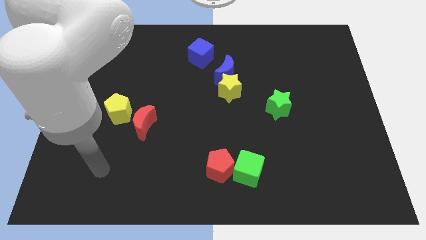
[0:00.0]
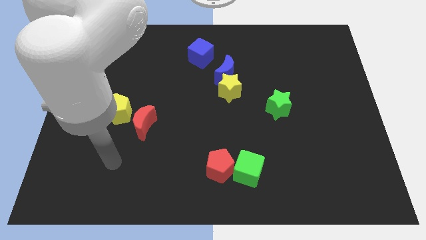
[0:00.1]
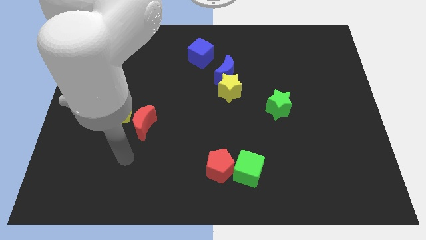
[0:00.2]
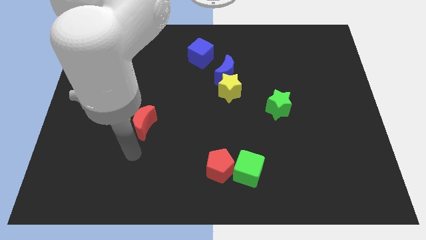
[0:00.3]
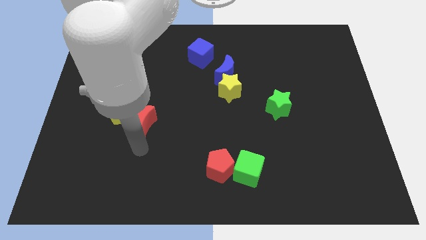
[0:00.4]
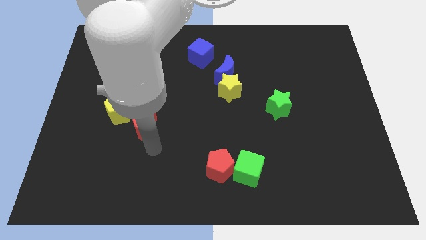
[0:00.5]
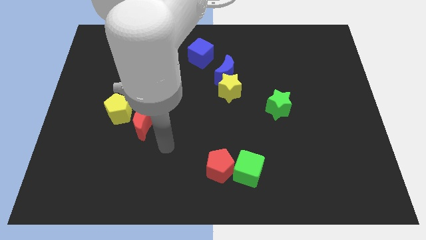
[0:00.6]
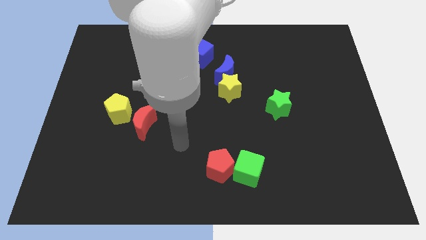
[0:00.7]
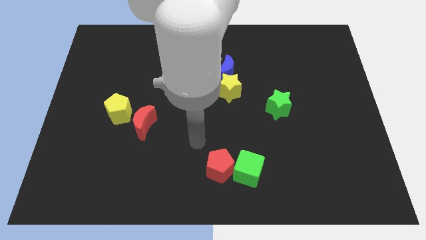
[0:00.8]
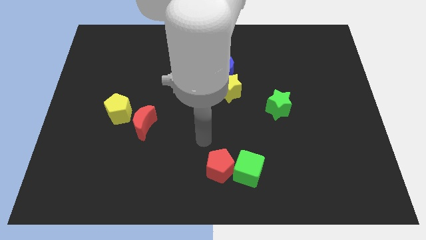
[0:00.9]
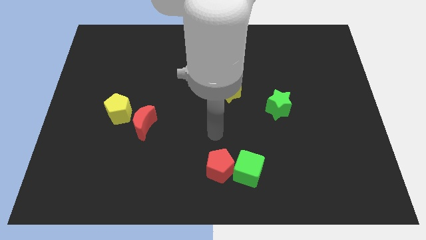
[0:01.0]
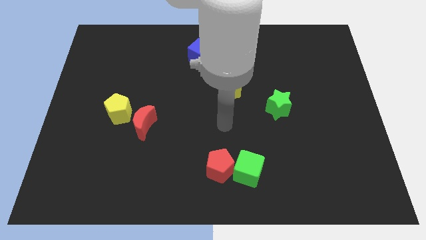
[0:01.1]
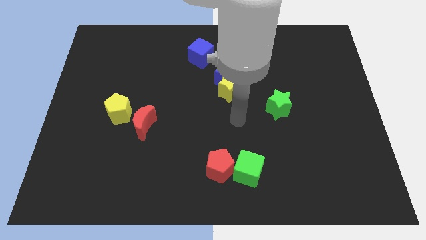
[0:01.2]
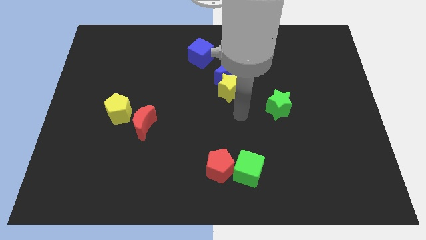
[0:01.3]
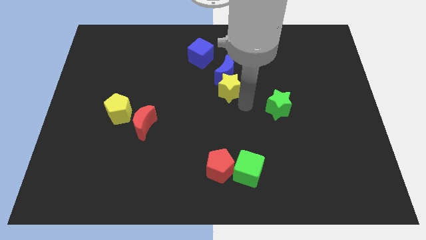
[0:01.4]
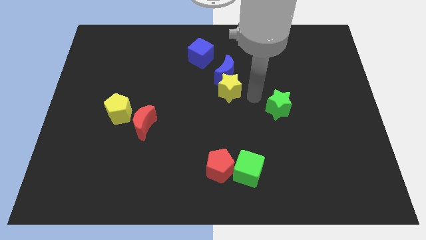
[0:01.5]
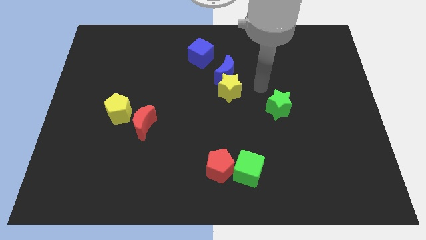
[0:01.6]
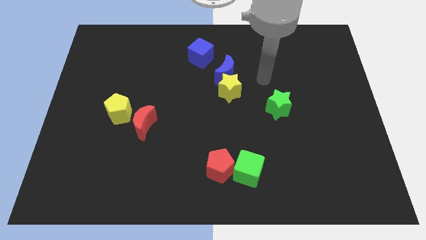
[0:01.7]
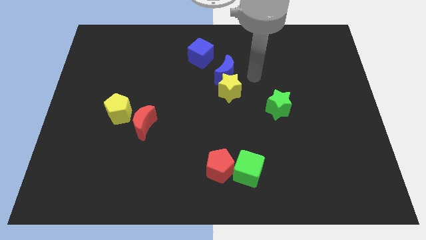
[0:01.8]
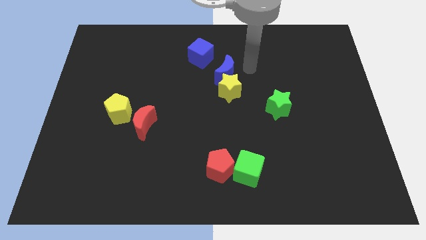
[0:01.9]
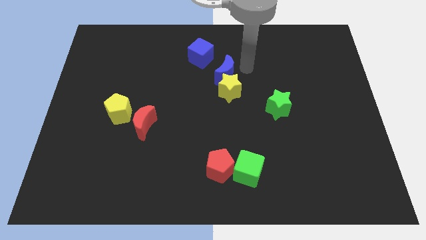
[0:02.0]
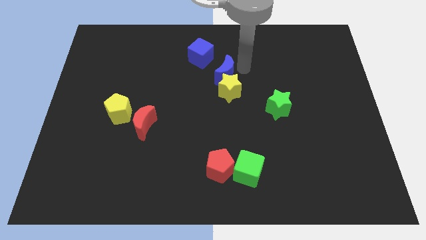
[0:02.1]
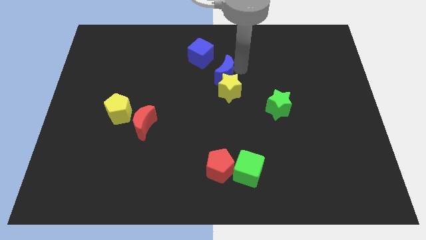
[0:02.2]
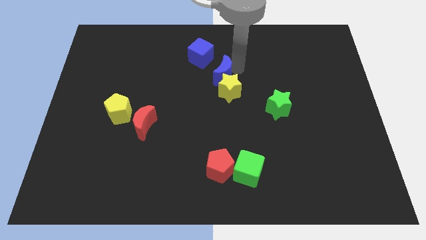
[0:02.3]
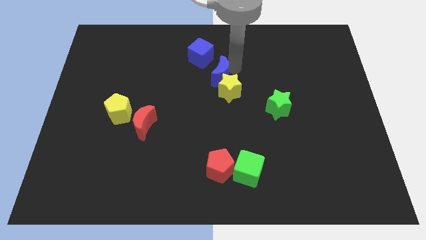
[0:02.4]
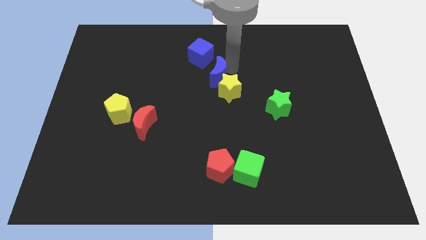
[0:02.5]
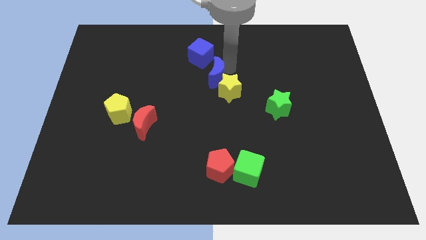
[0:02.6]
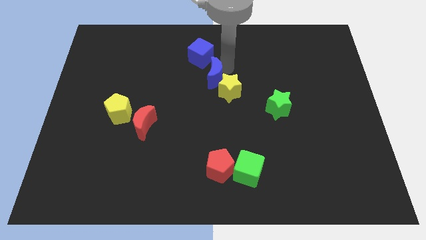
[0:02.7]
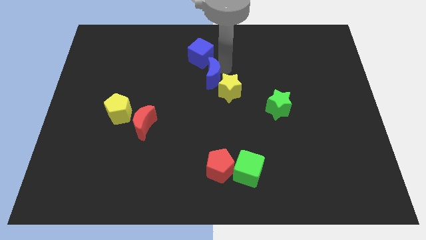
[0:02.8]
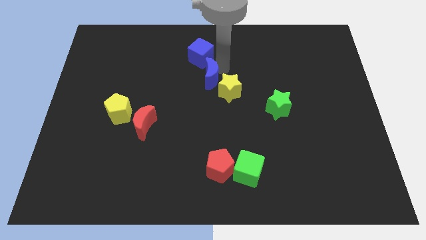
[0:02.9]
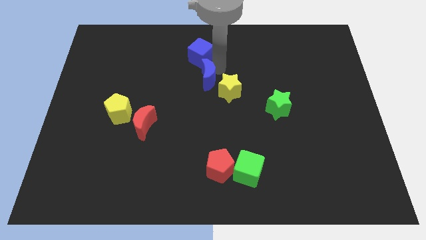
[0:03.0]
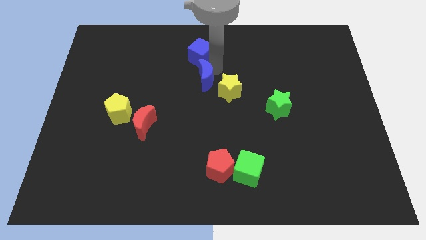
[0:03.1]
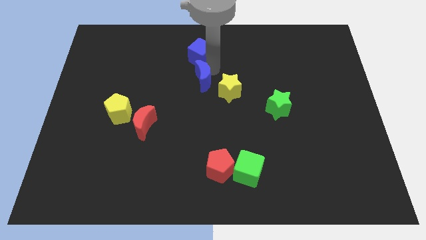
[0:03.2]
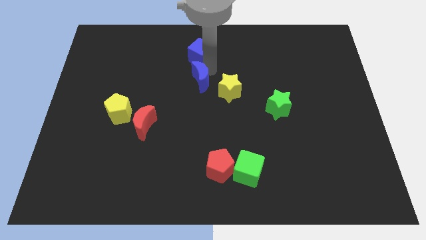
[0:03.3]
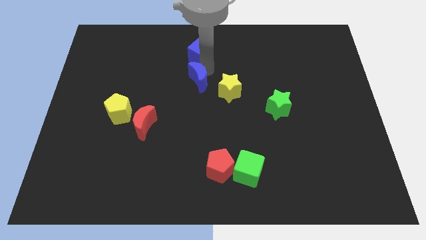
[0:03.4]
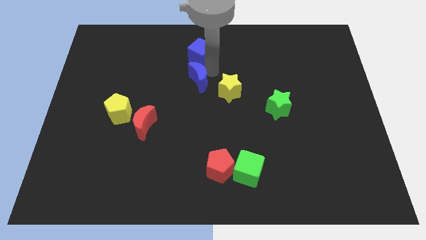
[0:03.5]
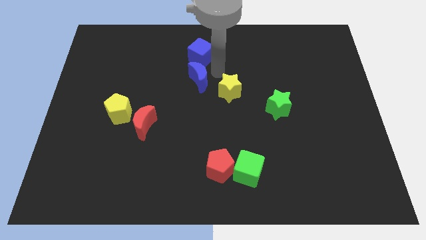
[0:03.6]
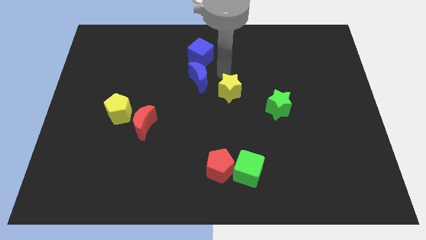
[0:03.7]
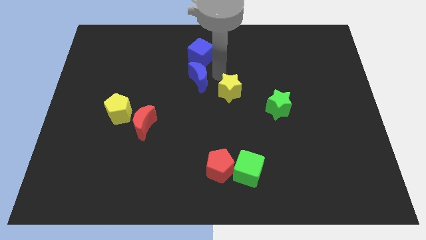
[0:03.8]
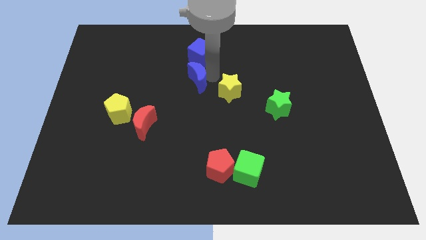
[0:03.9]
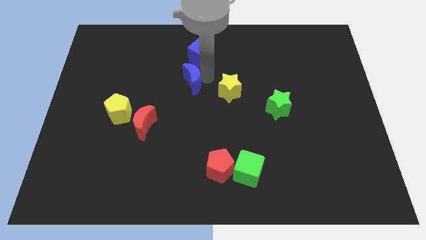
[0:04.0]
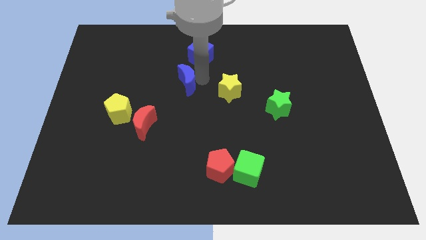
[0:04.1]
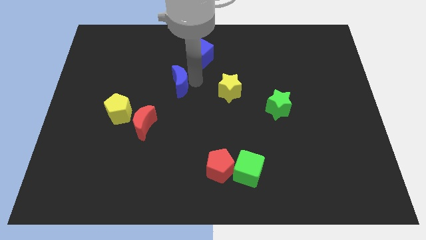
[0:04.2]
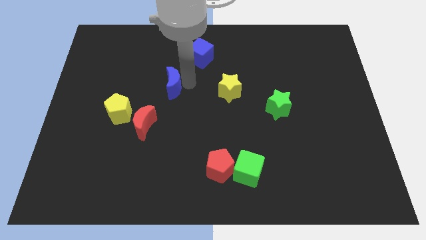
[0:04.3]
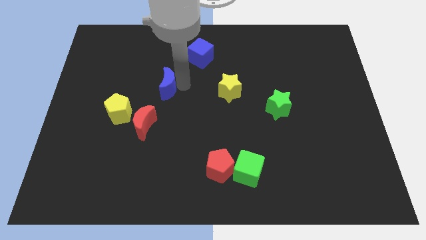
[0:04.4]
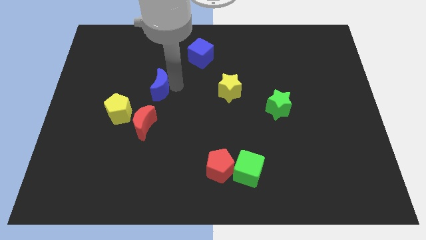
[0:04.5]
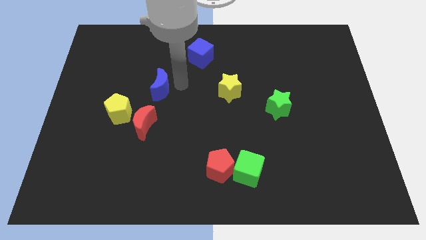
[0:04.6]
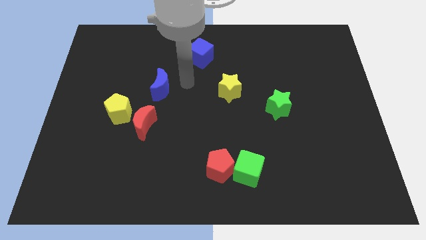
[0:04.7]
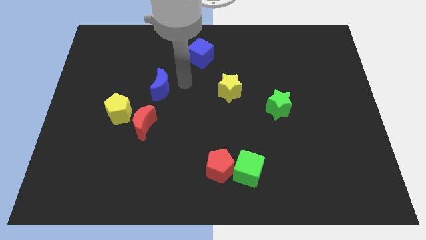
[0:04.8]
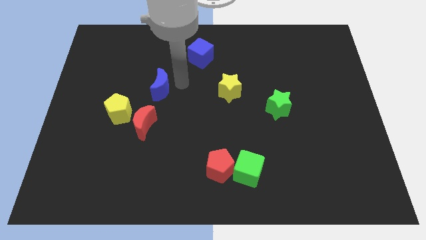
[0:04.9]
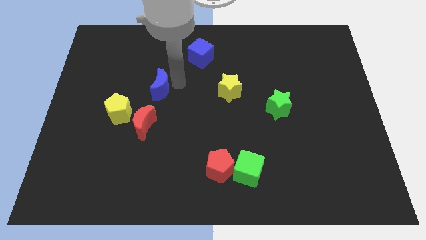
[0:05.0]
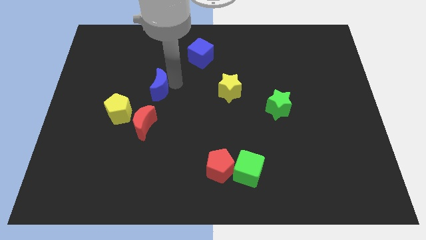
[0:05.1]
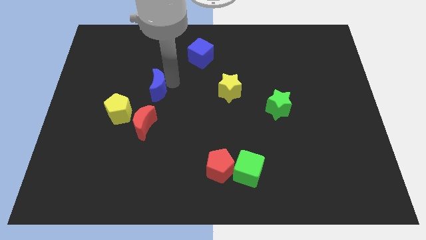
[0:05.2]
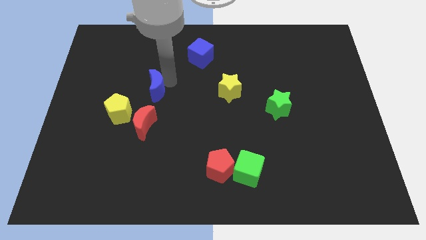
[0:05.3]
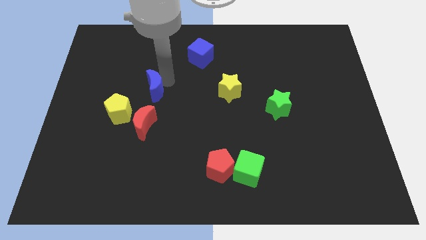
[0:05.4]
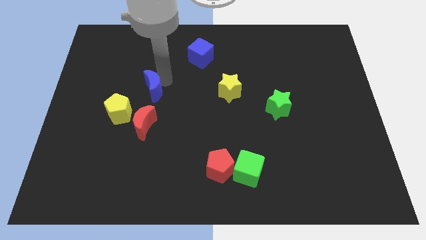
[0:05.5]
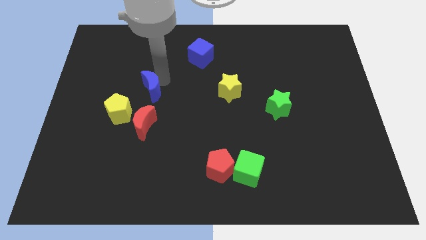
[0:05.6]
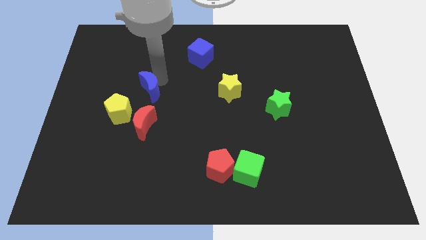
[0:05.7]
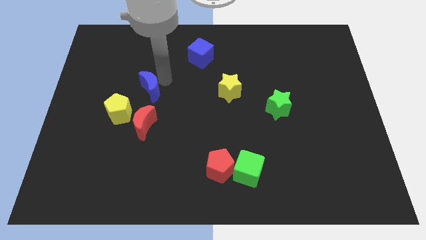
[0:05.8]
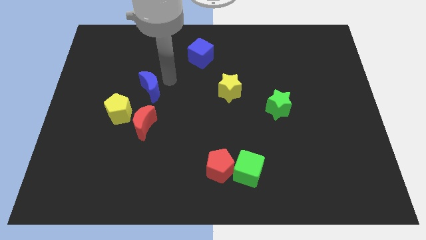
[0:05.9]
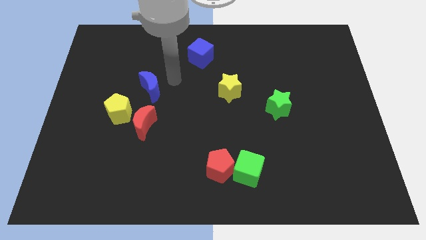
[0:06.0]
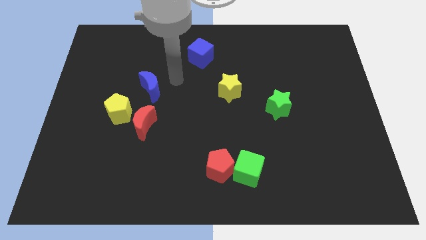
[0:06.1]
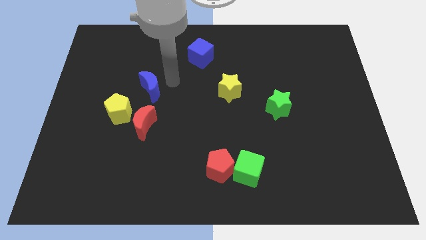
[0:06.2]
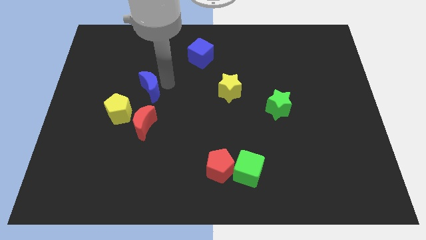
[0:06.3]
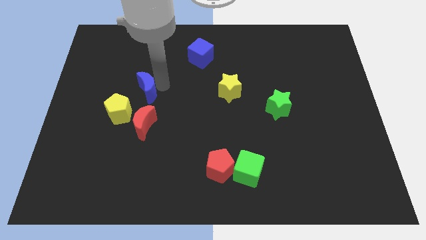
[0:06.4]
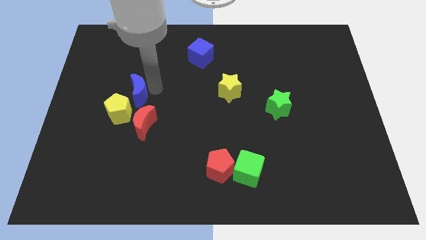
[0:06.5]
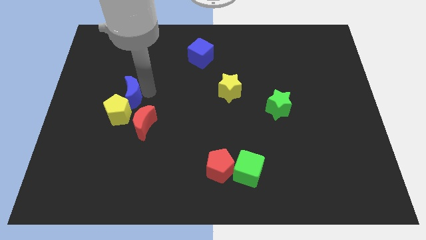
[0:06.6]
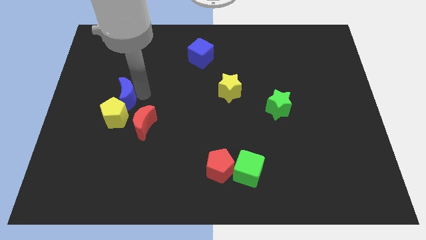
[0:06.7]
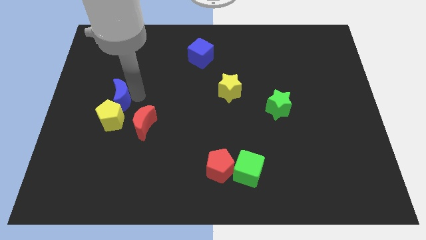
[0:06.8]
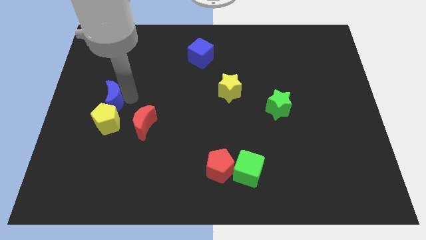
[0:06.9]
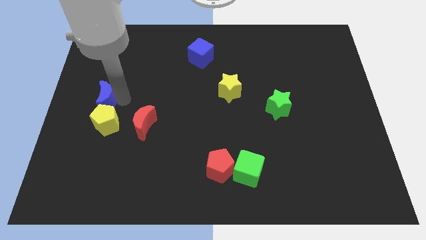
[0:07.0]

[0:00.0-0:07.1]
put the blue moon to the center left
